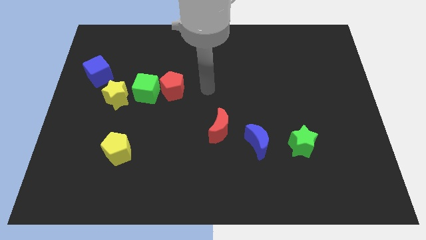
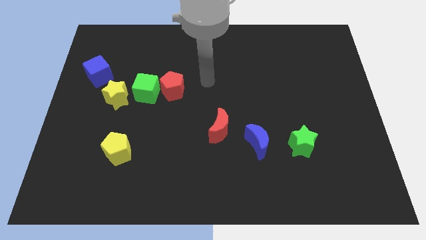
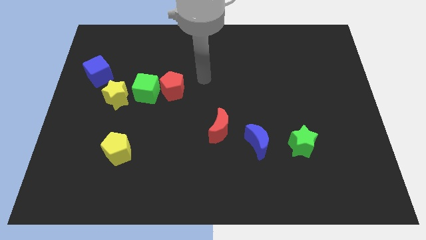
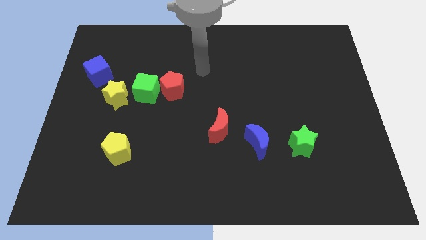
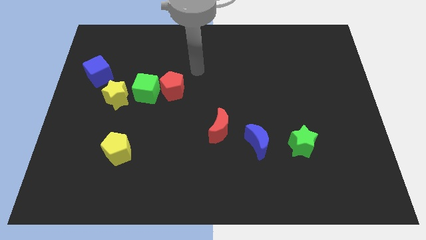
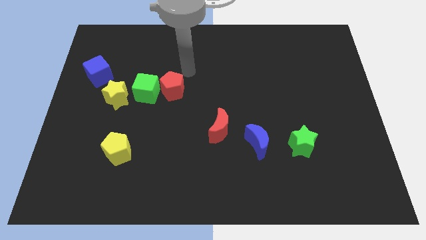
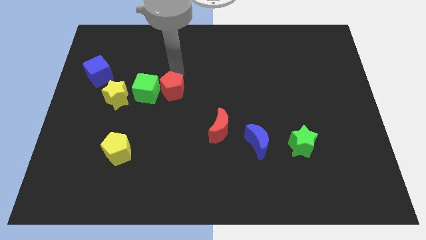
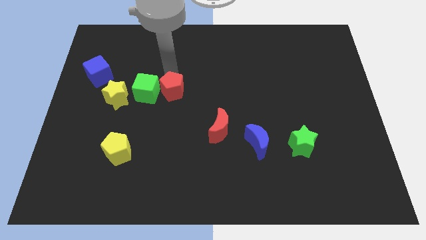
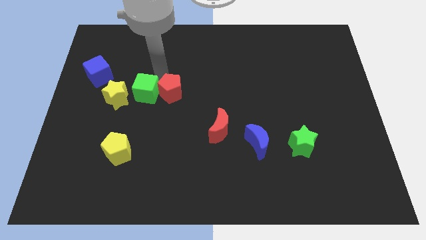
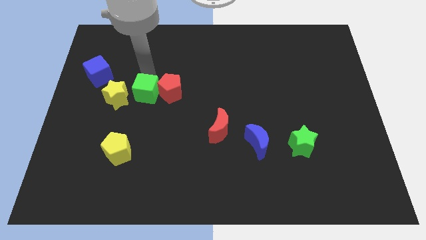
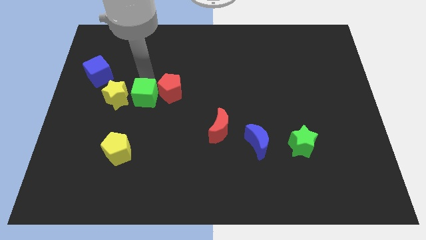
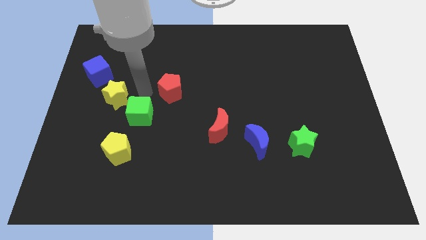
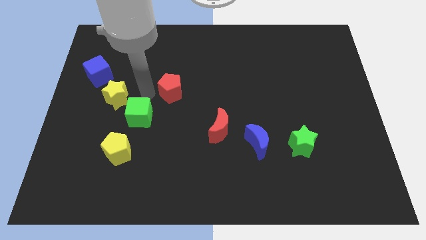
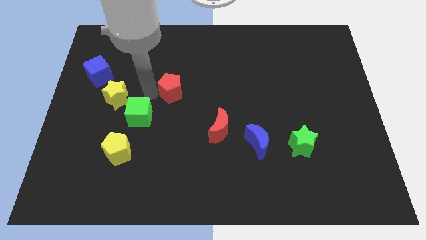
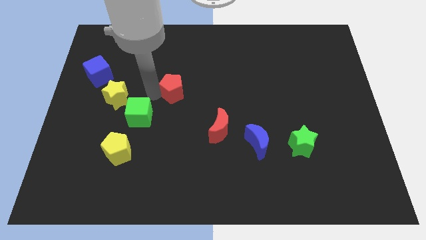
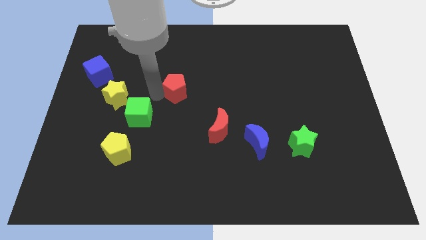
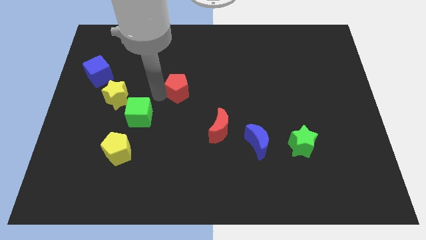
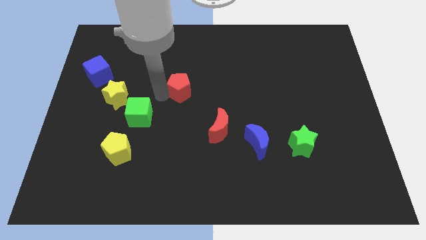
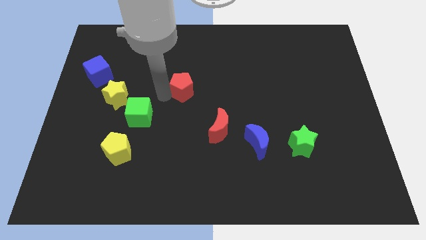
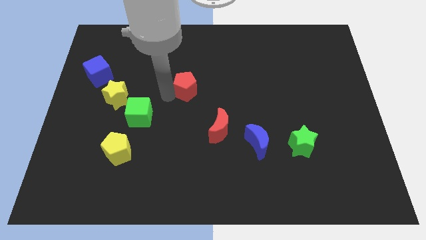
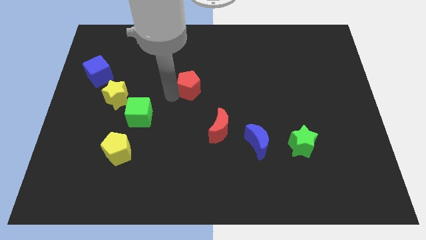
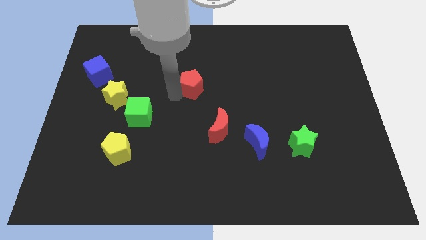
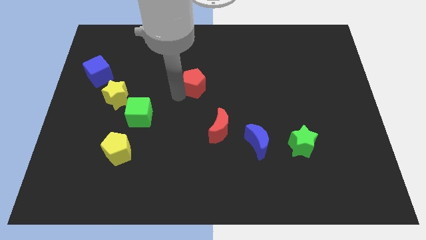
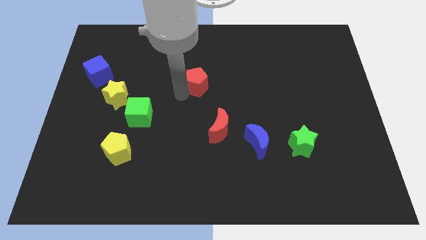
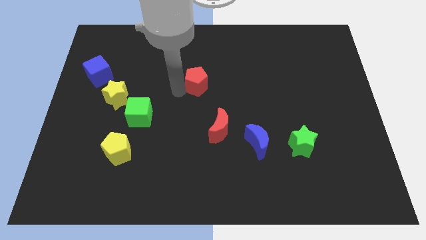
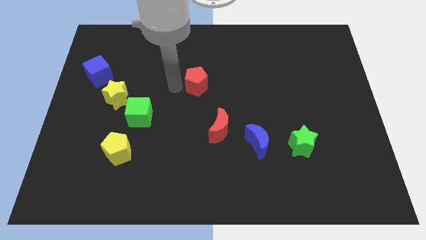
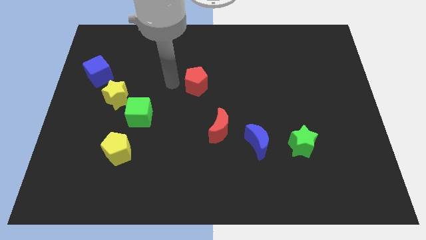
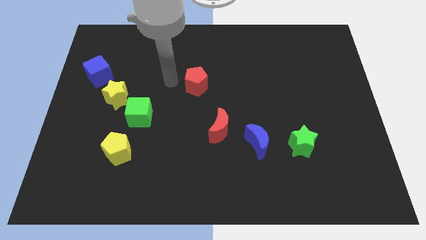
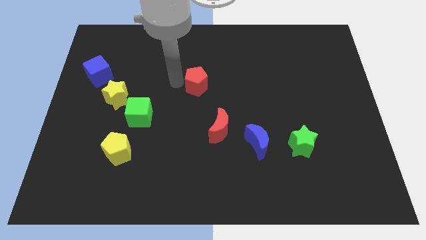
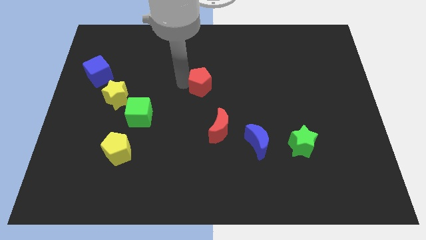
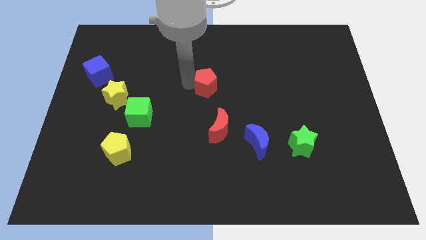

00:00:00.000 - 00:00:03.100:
slide the red pentagon right a bit

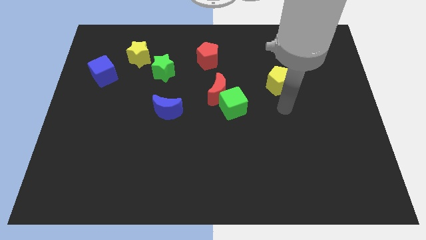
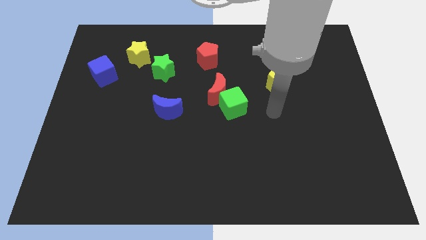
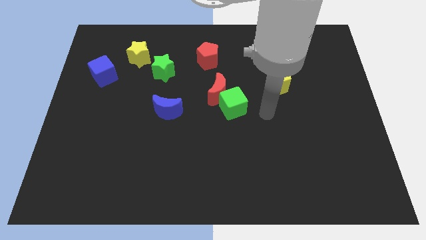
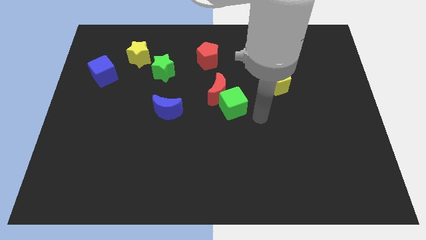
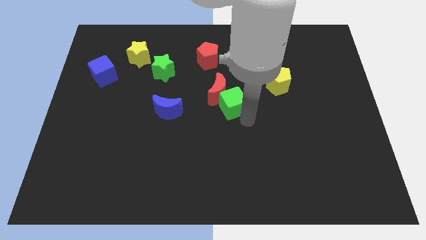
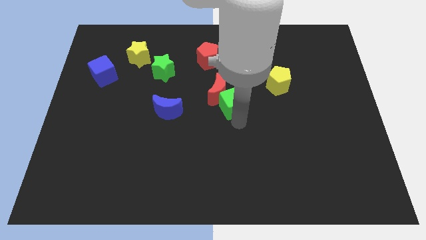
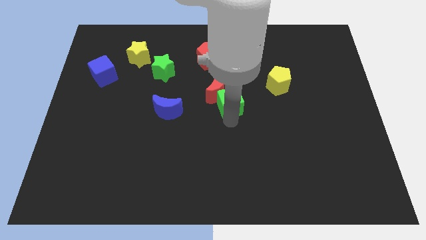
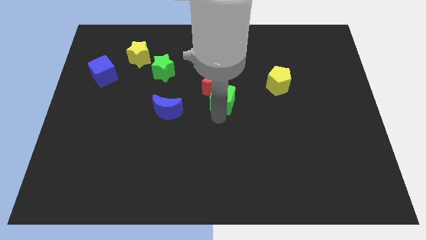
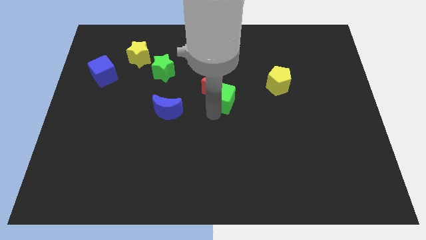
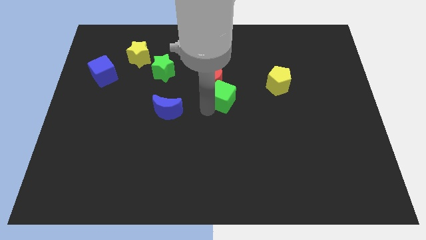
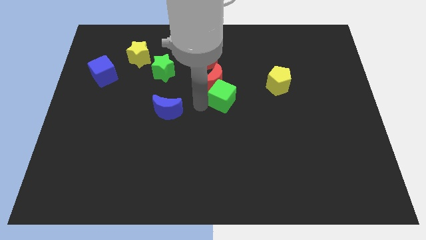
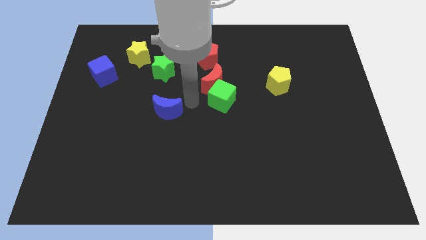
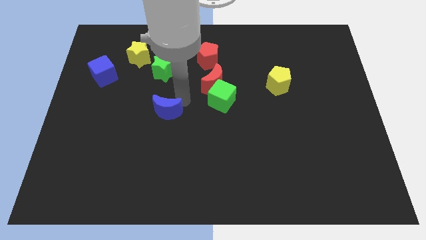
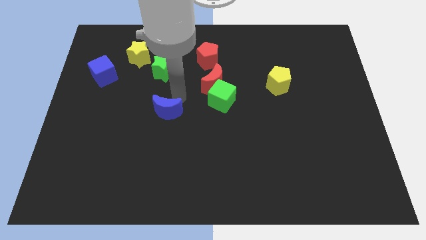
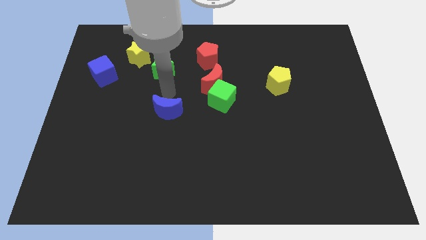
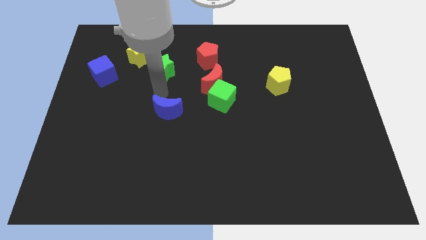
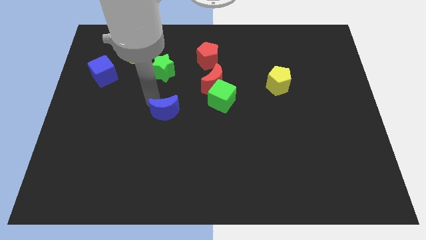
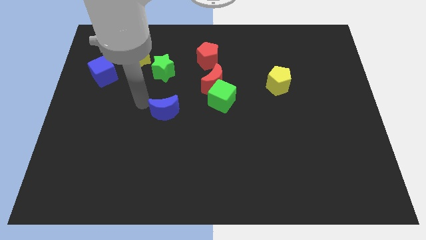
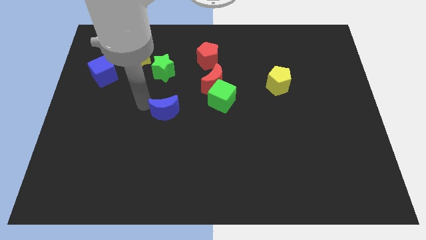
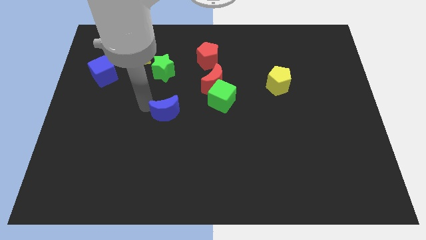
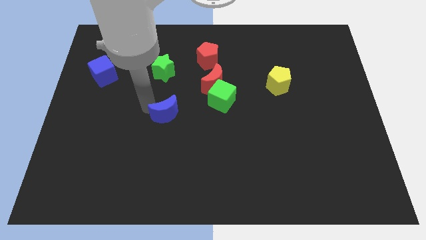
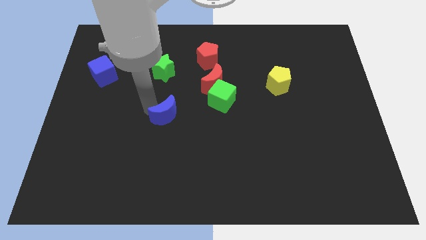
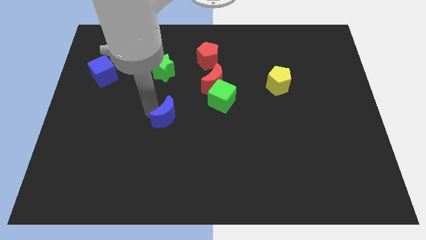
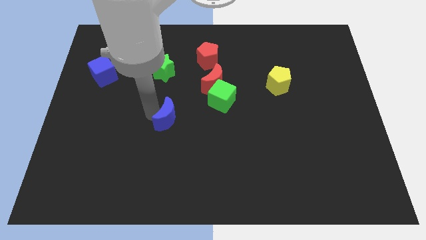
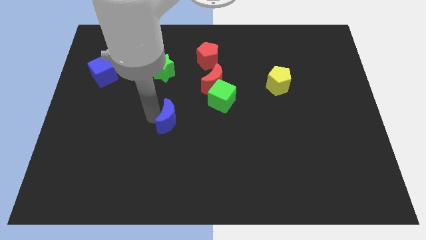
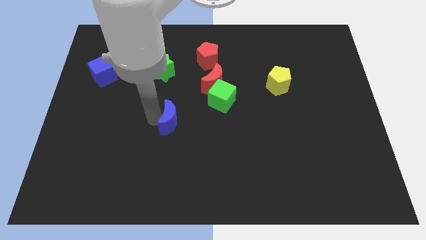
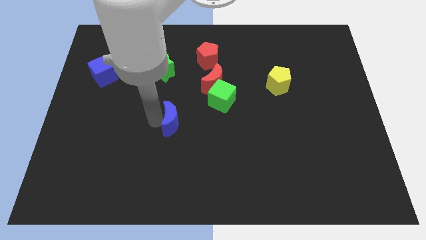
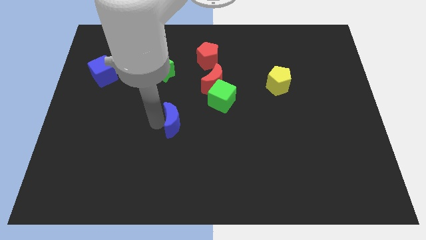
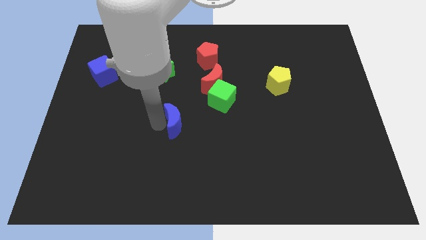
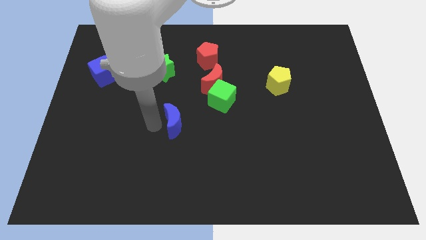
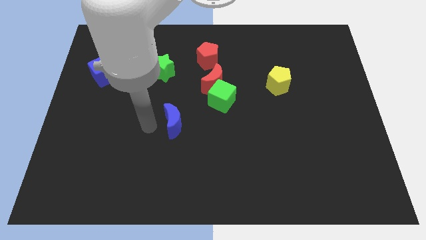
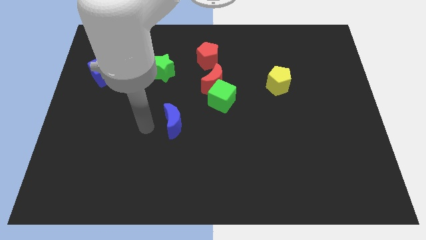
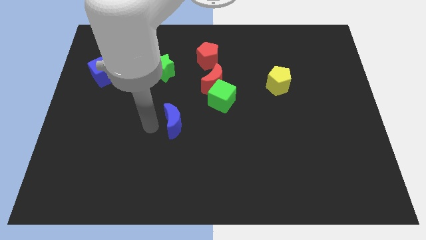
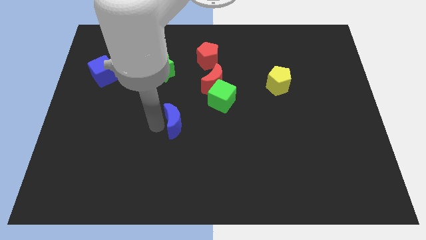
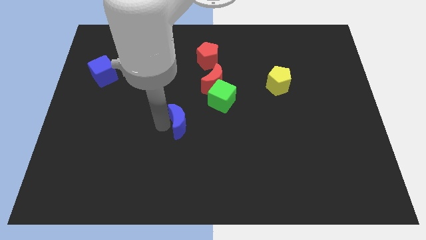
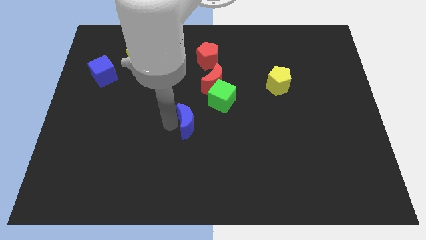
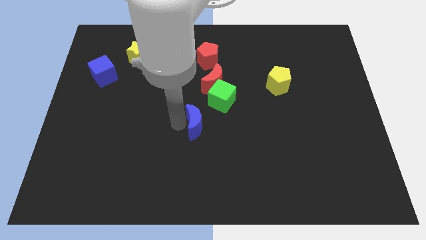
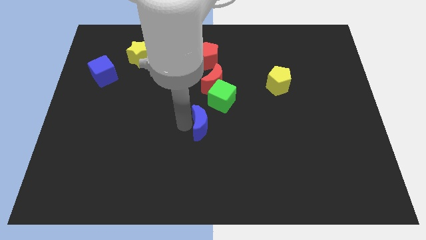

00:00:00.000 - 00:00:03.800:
move the blue moon to the right a bit

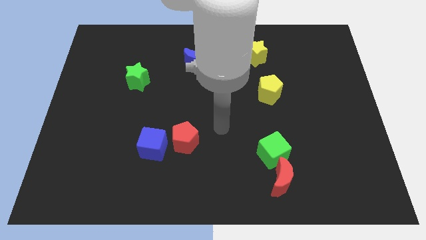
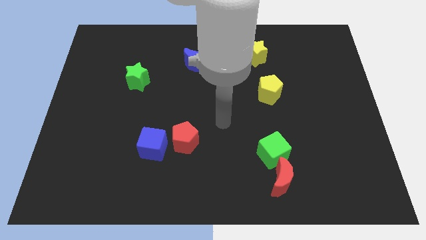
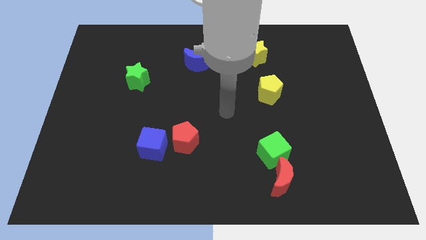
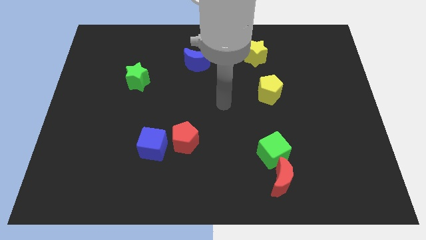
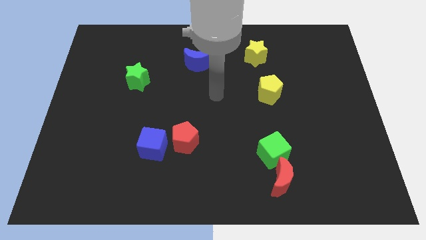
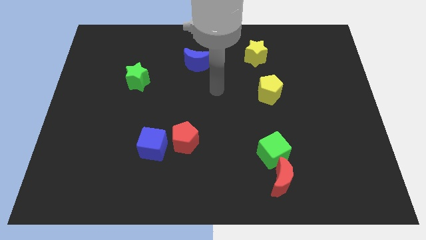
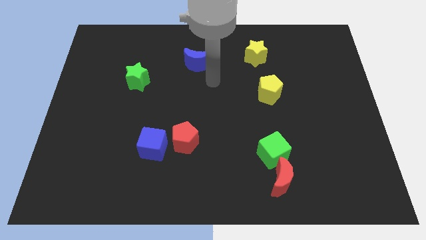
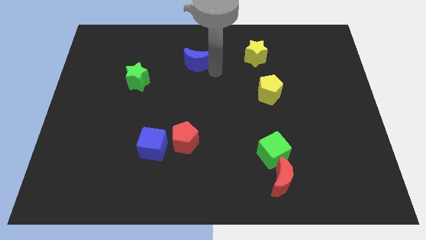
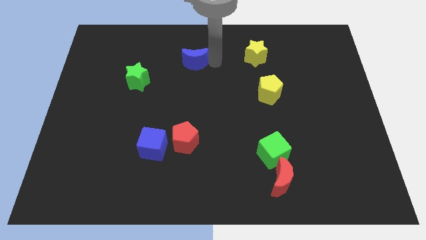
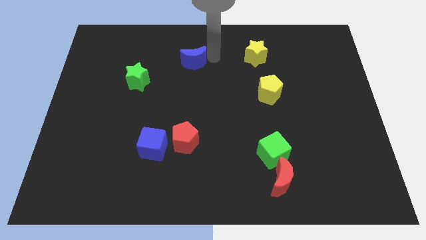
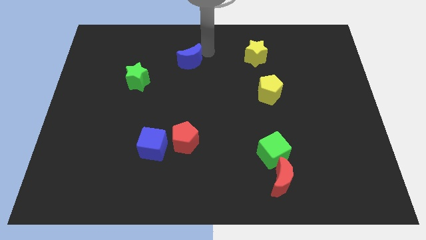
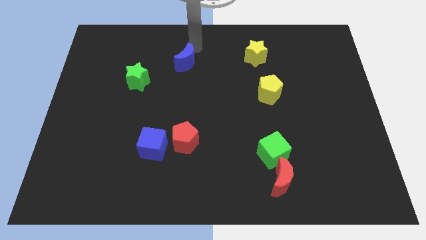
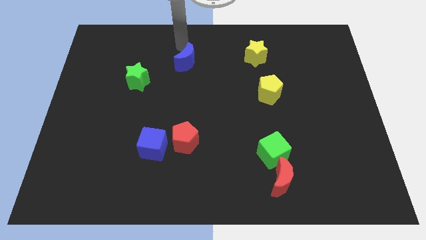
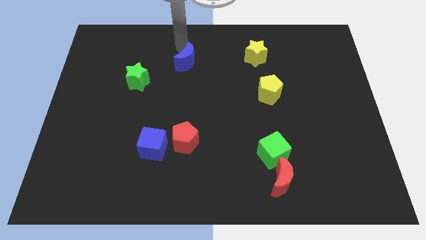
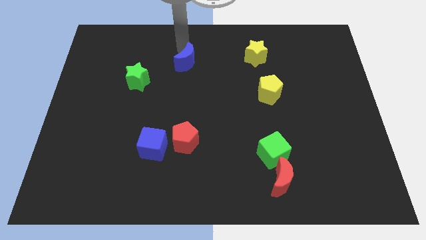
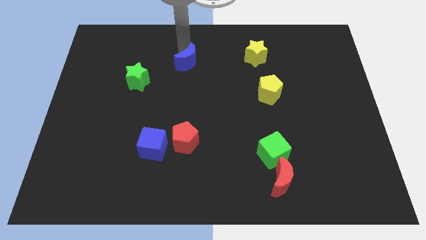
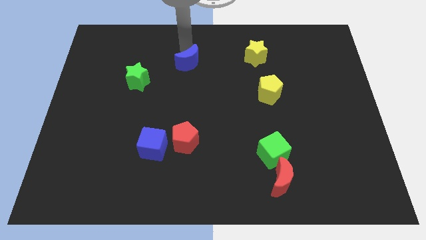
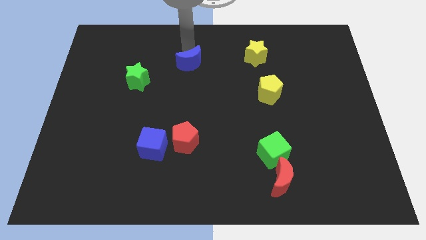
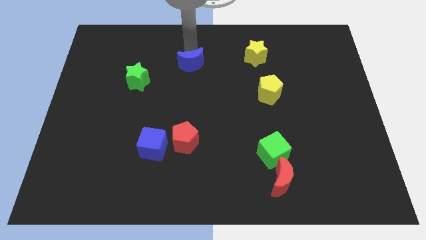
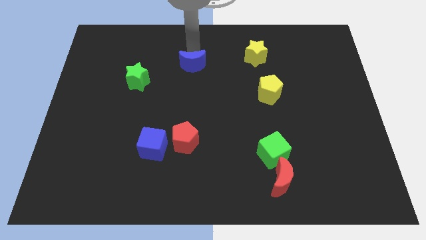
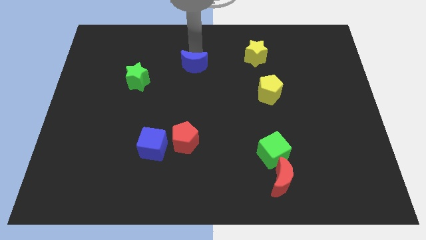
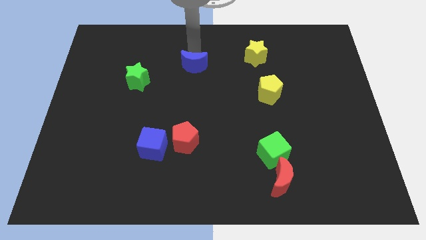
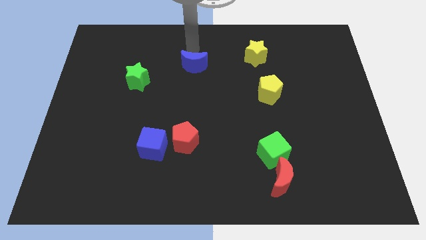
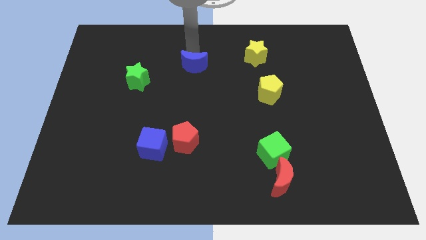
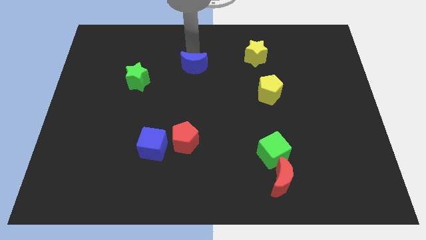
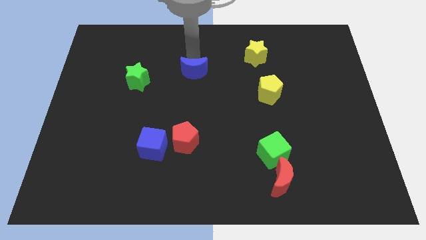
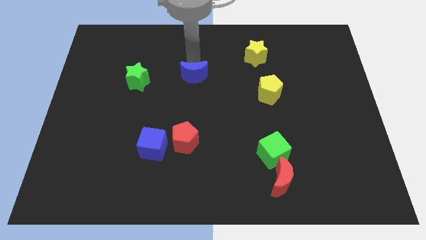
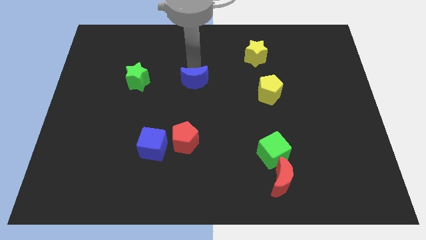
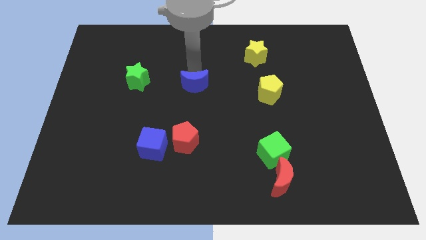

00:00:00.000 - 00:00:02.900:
move the blue moon downwards a little bit
